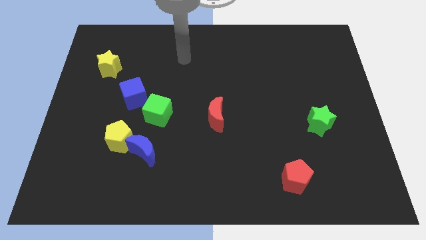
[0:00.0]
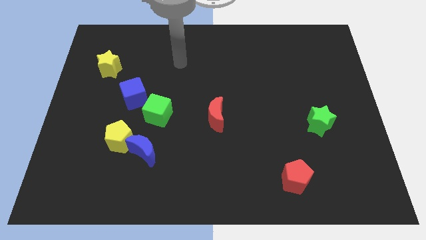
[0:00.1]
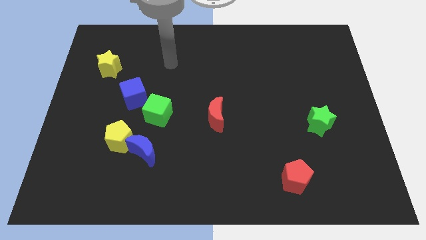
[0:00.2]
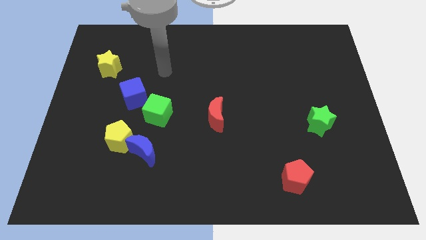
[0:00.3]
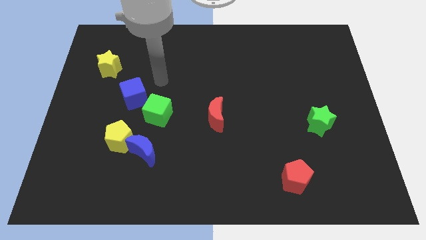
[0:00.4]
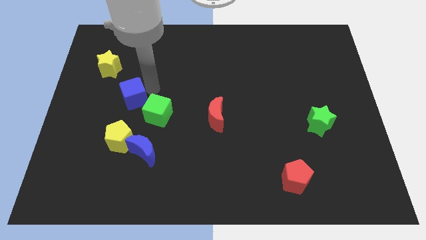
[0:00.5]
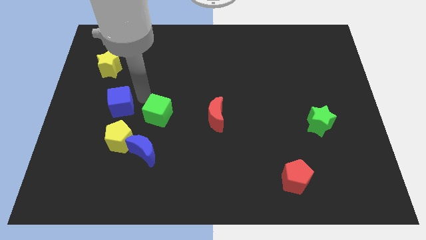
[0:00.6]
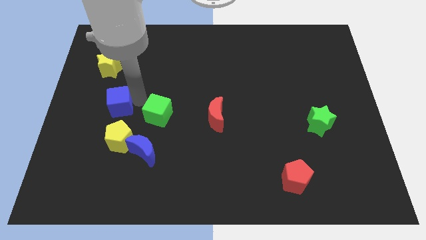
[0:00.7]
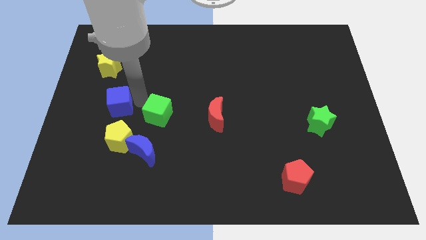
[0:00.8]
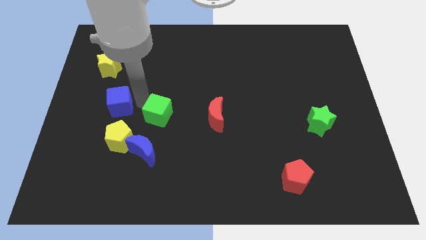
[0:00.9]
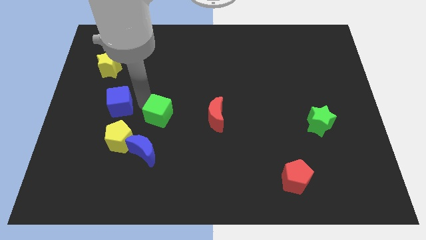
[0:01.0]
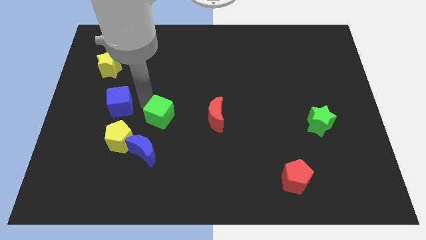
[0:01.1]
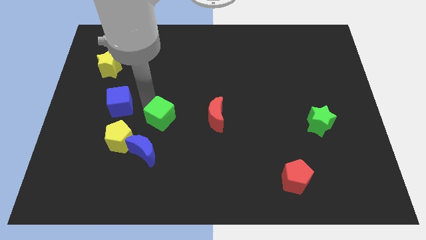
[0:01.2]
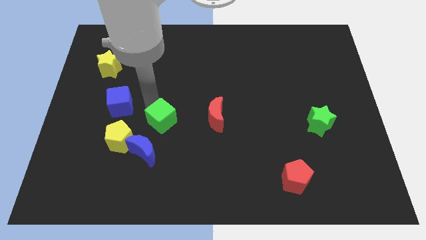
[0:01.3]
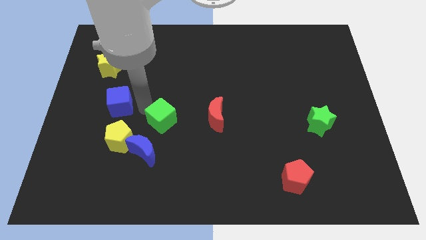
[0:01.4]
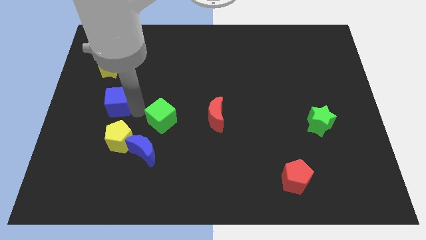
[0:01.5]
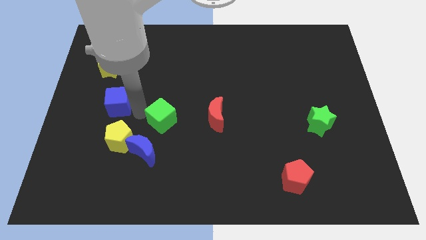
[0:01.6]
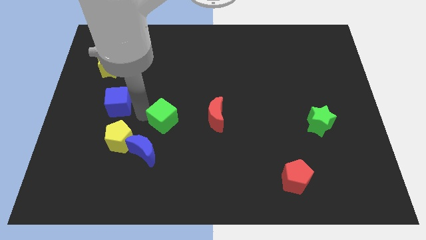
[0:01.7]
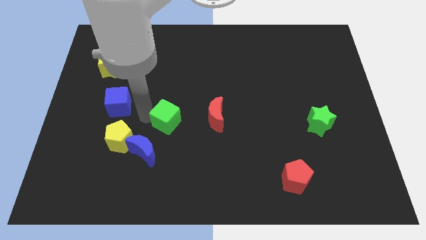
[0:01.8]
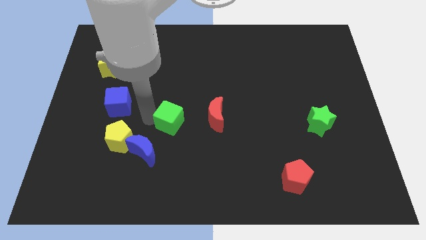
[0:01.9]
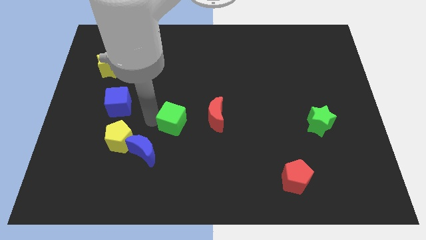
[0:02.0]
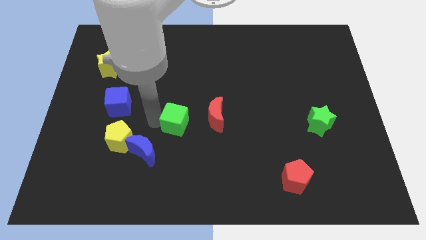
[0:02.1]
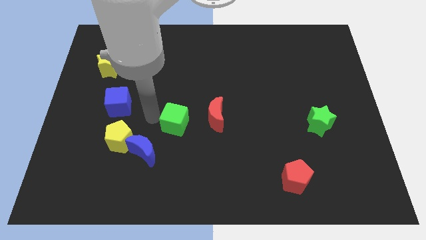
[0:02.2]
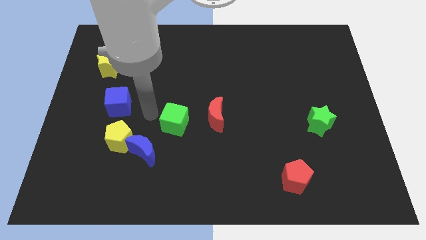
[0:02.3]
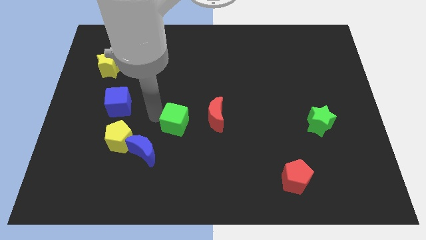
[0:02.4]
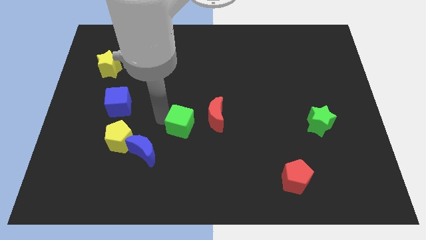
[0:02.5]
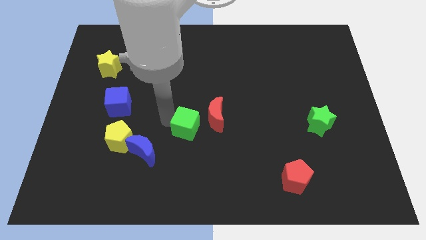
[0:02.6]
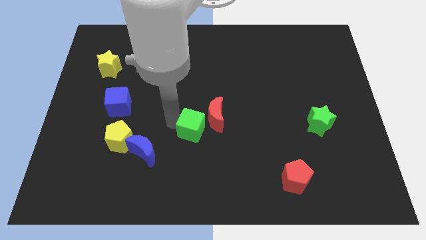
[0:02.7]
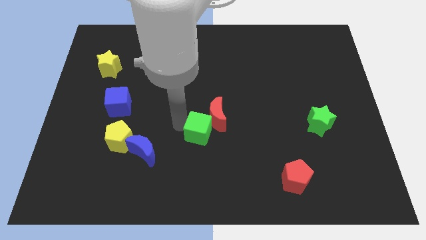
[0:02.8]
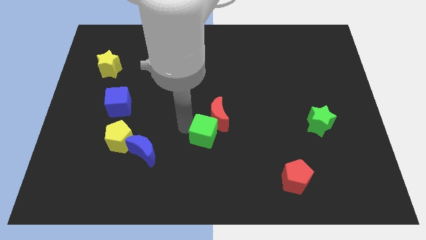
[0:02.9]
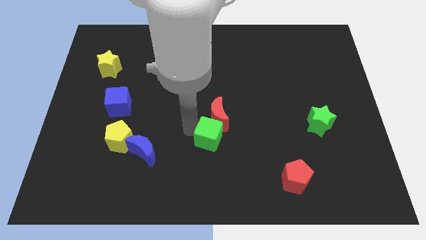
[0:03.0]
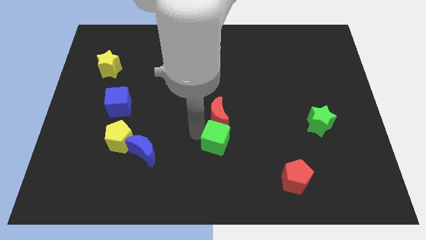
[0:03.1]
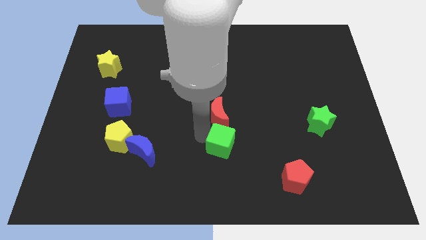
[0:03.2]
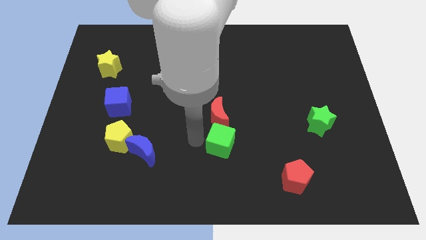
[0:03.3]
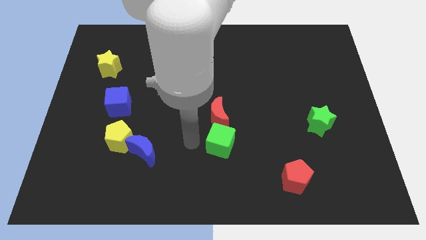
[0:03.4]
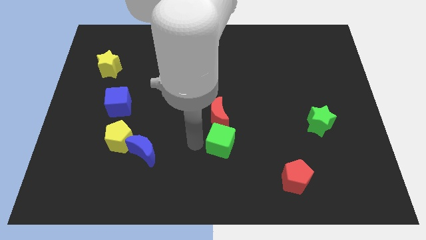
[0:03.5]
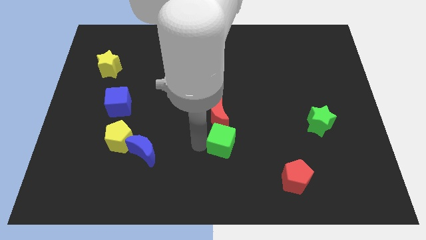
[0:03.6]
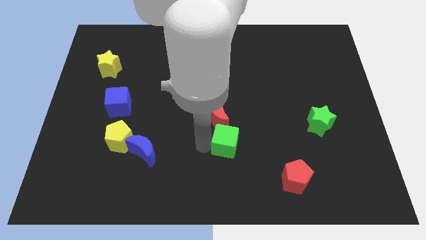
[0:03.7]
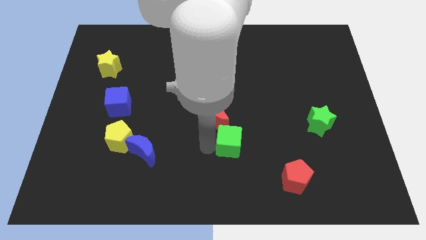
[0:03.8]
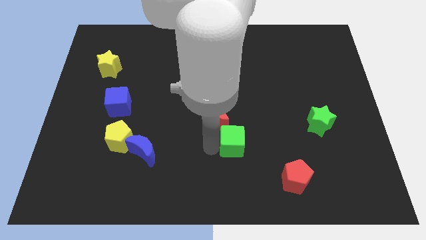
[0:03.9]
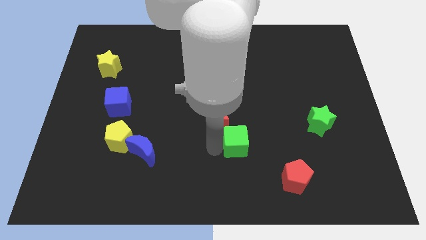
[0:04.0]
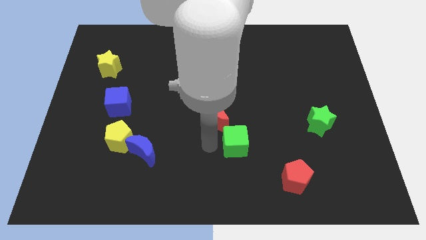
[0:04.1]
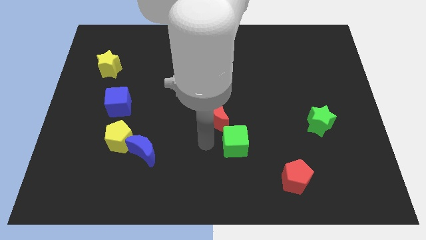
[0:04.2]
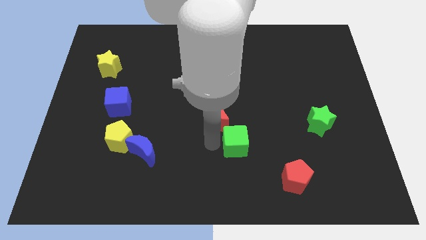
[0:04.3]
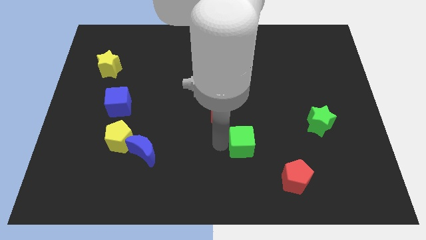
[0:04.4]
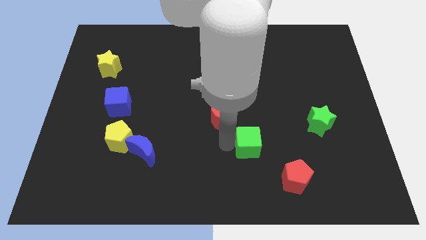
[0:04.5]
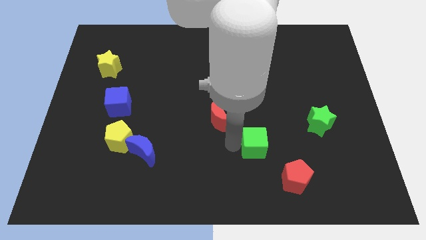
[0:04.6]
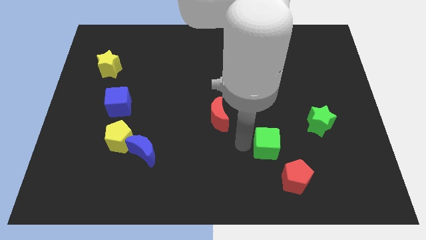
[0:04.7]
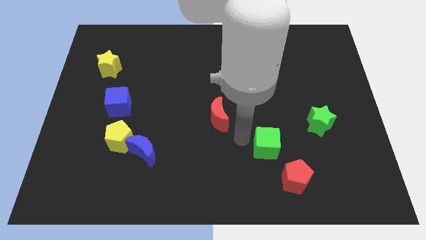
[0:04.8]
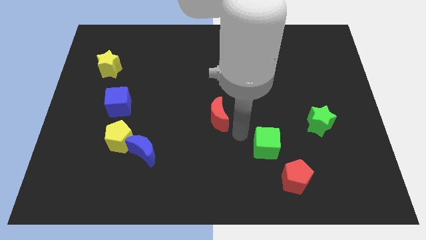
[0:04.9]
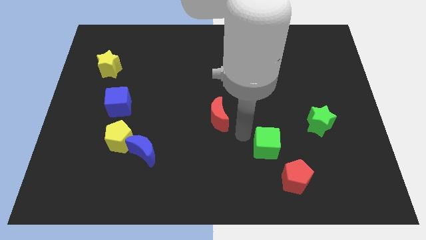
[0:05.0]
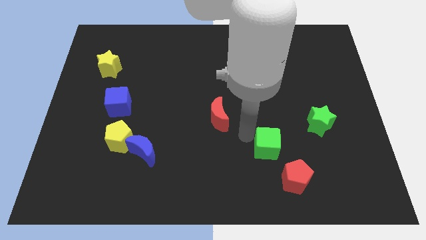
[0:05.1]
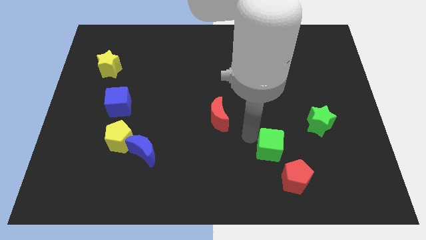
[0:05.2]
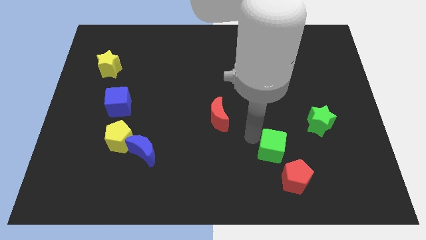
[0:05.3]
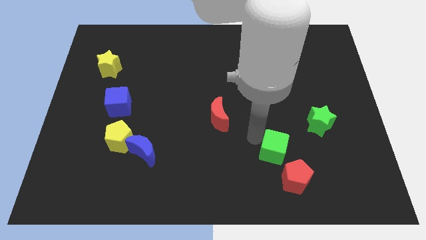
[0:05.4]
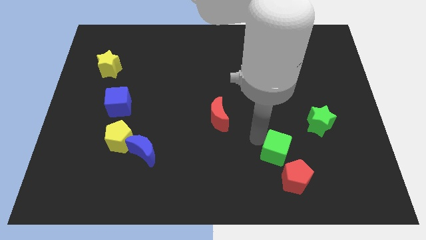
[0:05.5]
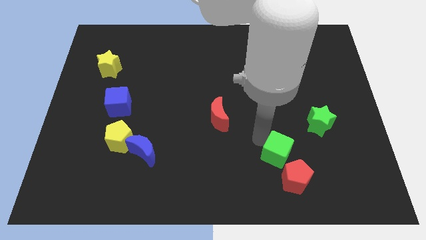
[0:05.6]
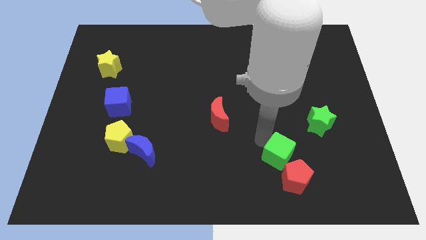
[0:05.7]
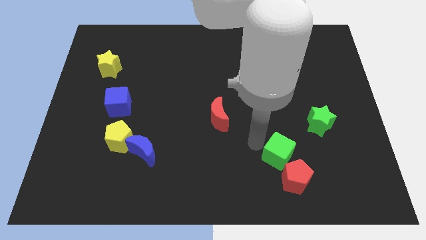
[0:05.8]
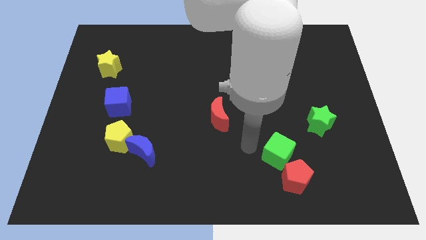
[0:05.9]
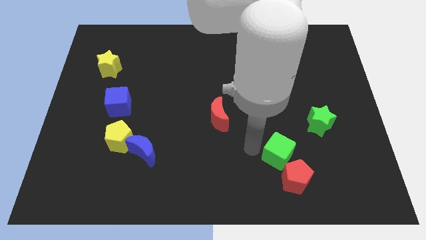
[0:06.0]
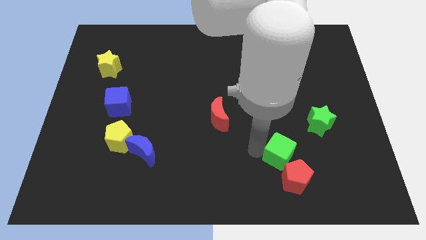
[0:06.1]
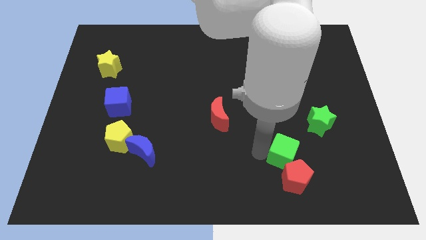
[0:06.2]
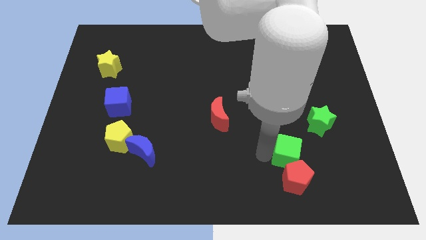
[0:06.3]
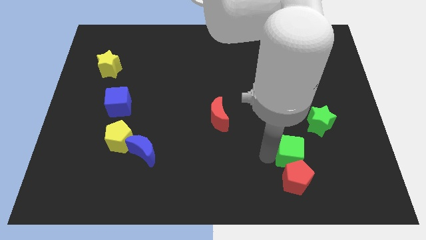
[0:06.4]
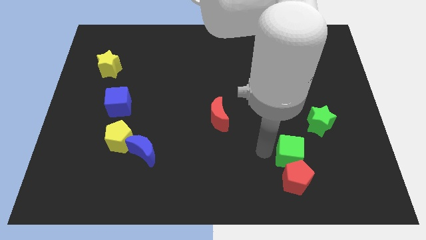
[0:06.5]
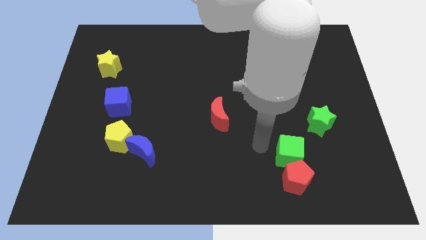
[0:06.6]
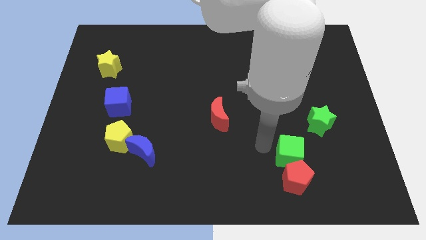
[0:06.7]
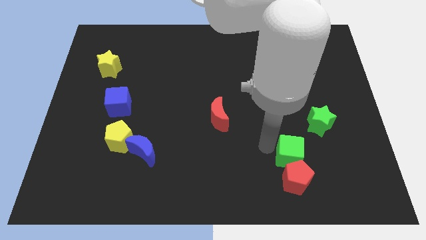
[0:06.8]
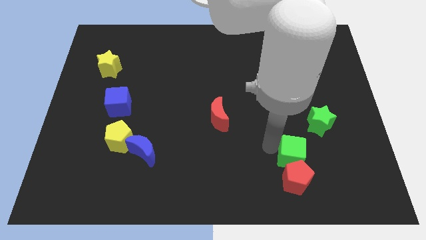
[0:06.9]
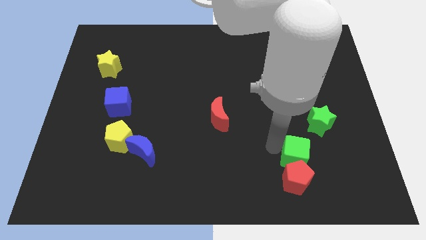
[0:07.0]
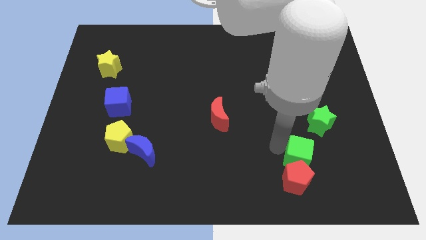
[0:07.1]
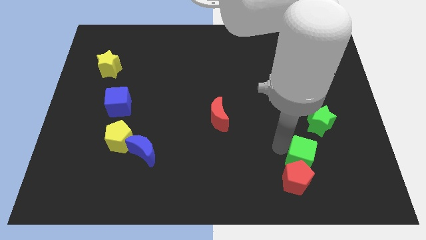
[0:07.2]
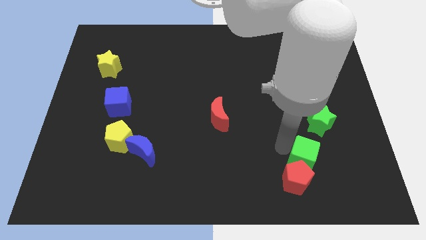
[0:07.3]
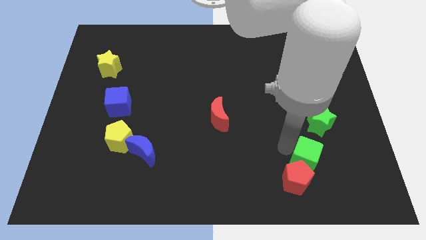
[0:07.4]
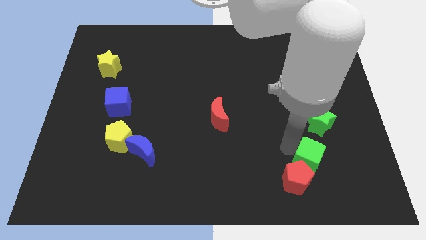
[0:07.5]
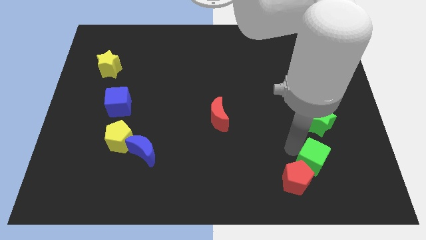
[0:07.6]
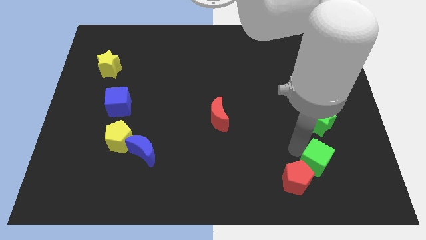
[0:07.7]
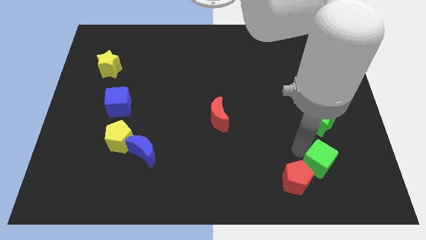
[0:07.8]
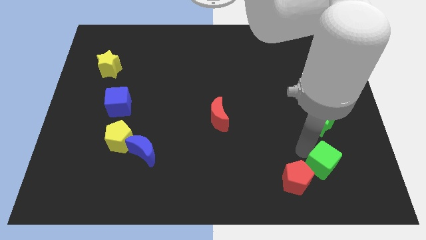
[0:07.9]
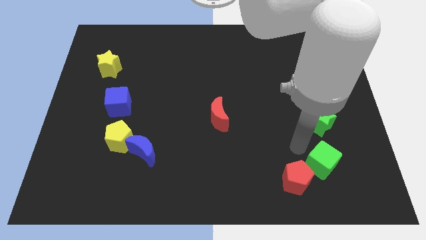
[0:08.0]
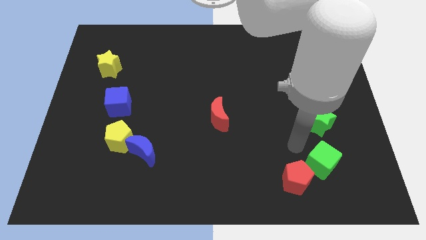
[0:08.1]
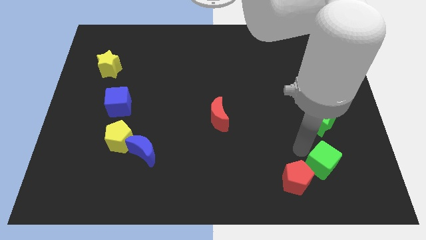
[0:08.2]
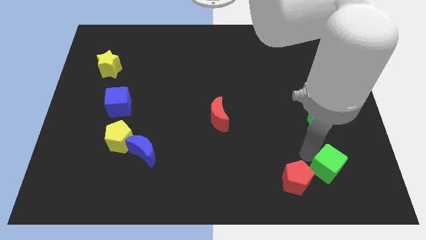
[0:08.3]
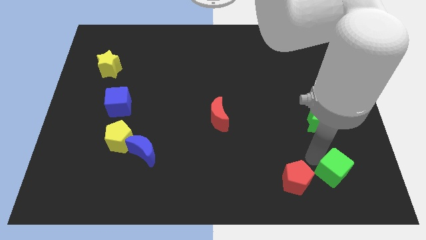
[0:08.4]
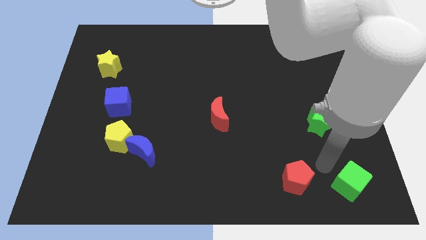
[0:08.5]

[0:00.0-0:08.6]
put the green cube to the bottom right corner
